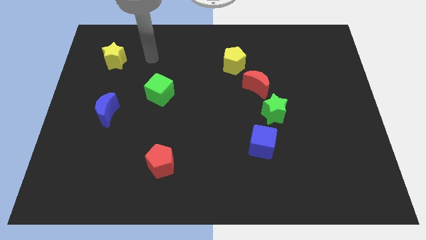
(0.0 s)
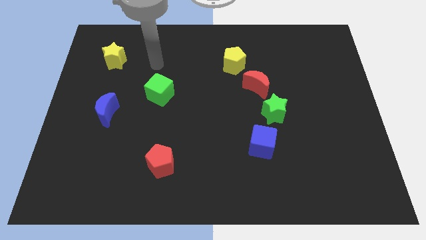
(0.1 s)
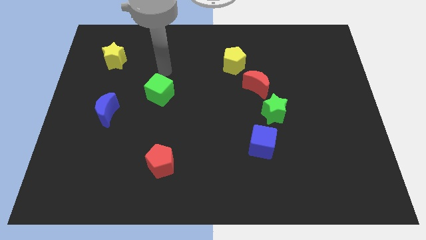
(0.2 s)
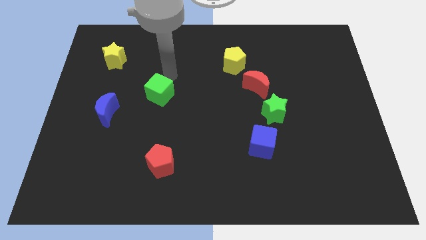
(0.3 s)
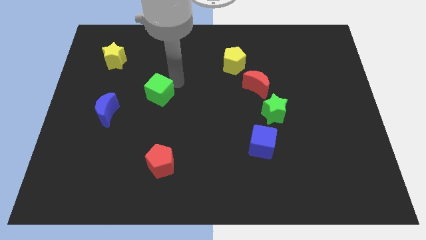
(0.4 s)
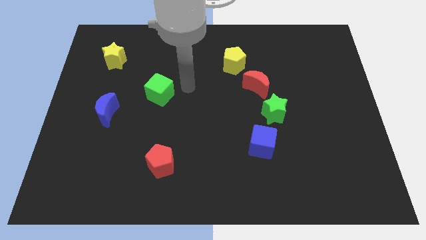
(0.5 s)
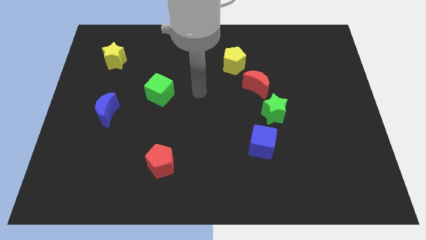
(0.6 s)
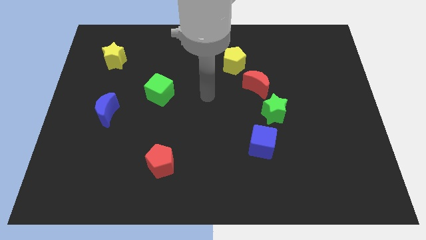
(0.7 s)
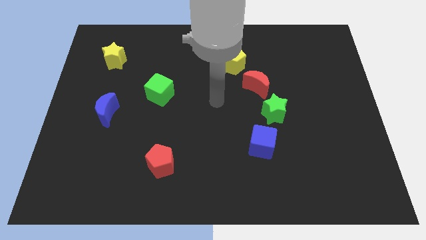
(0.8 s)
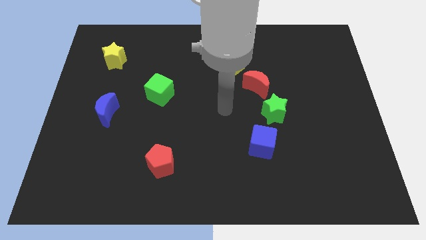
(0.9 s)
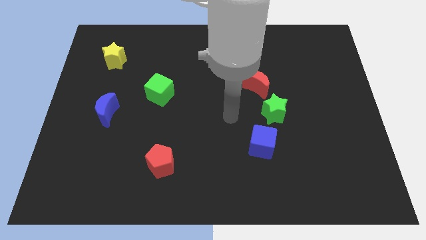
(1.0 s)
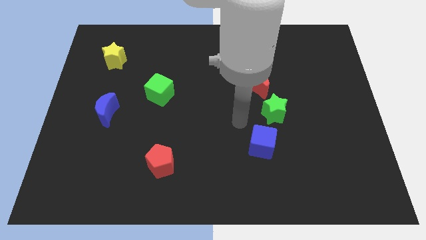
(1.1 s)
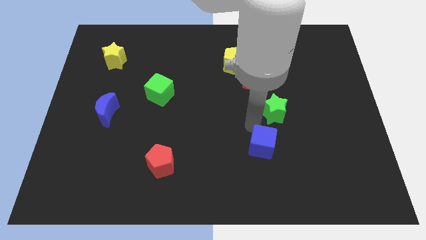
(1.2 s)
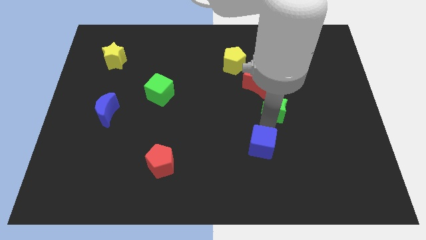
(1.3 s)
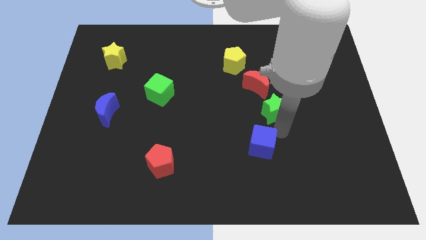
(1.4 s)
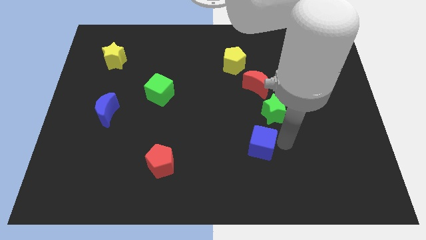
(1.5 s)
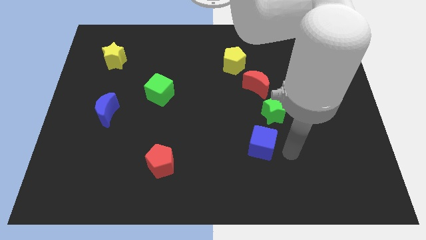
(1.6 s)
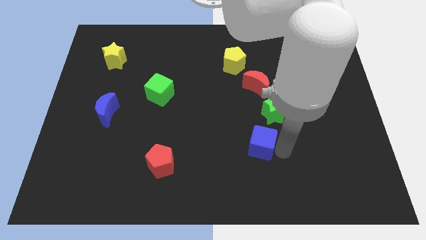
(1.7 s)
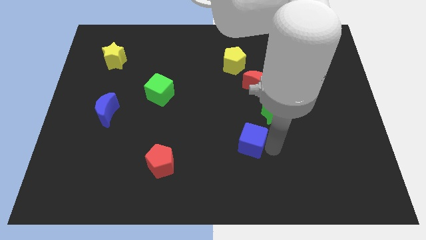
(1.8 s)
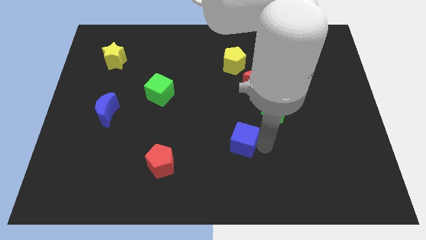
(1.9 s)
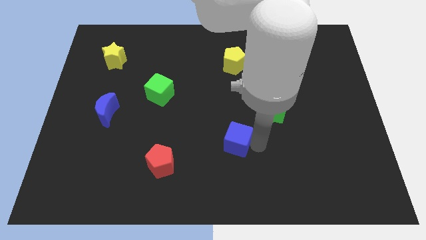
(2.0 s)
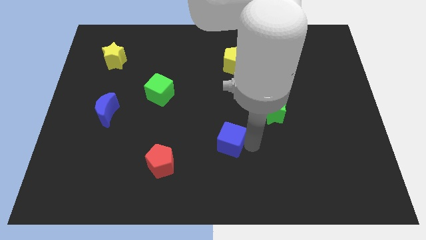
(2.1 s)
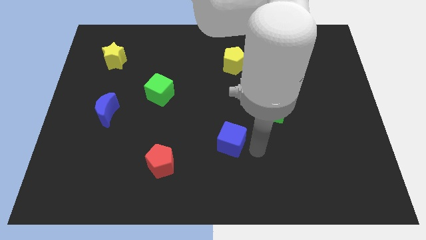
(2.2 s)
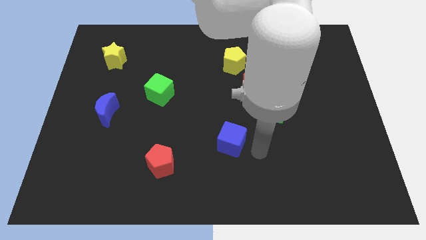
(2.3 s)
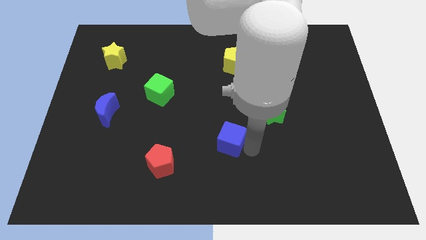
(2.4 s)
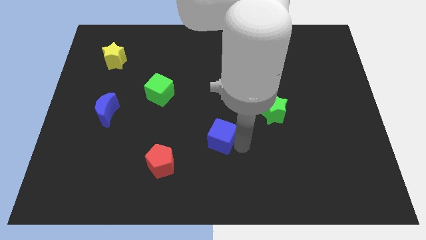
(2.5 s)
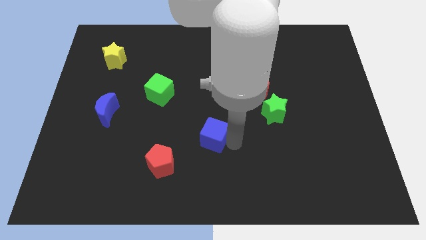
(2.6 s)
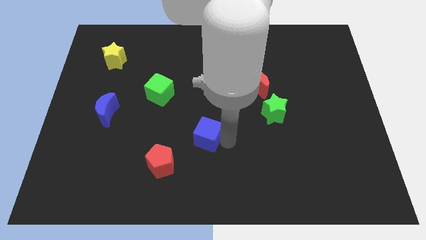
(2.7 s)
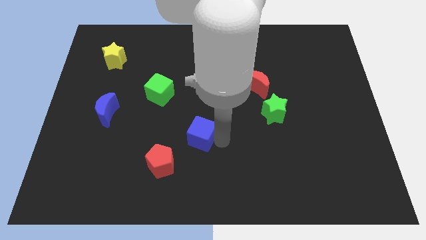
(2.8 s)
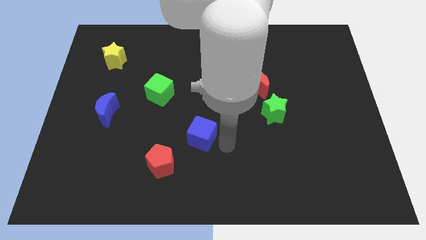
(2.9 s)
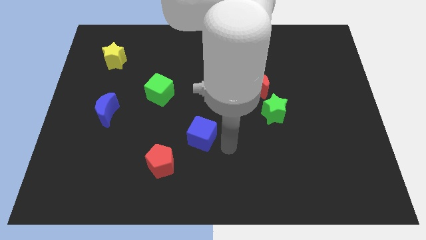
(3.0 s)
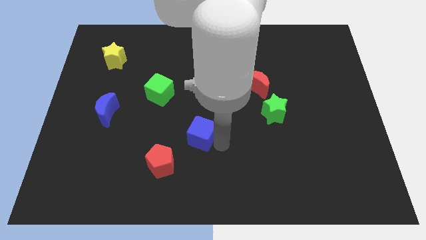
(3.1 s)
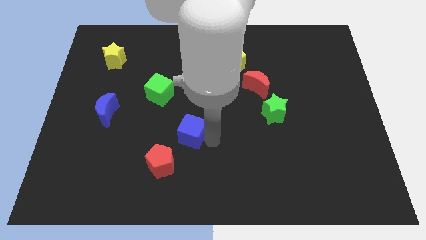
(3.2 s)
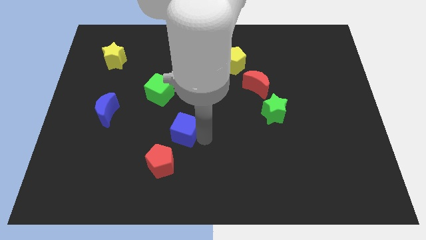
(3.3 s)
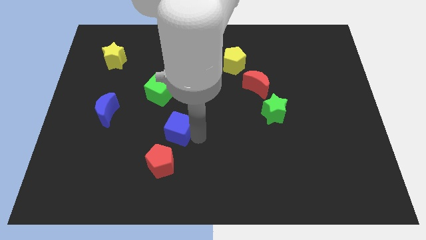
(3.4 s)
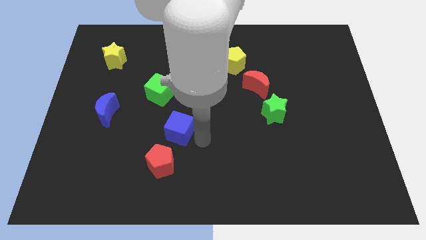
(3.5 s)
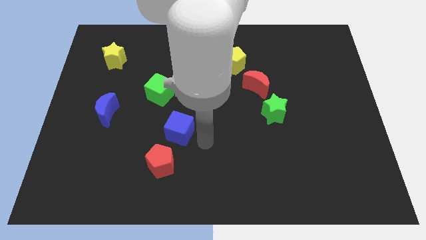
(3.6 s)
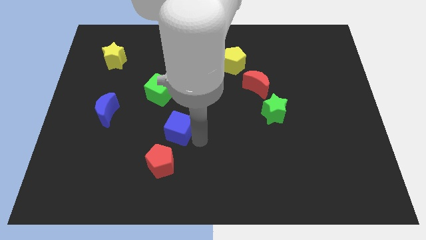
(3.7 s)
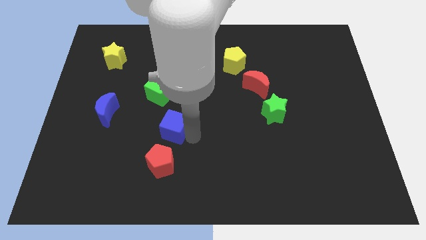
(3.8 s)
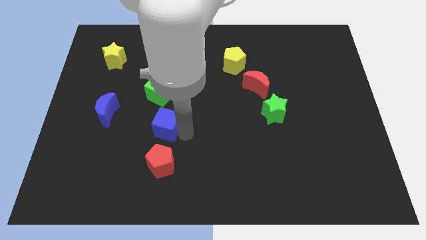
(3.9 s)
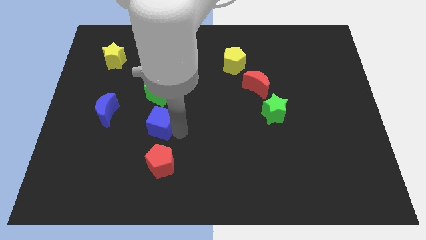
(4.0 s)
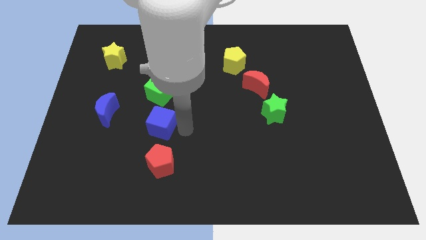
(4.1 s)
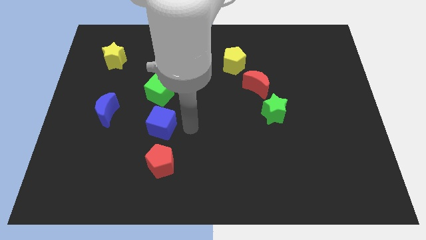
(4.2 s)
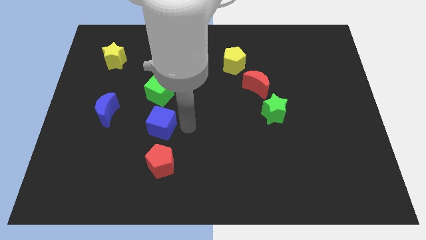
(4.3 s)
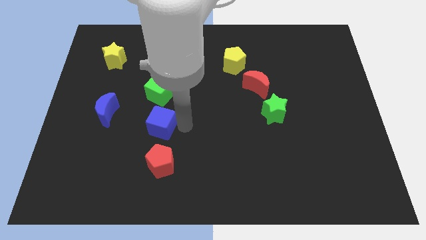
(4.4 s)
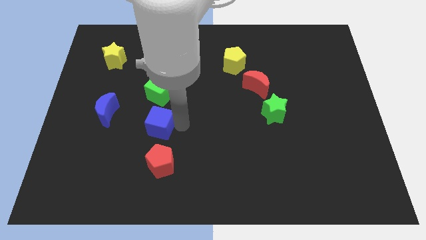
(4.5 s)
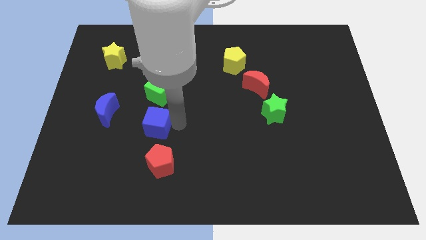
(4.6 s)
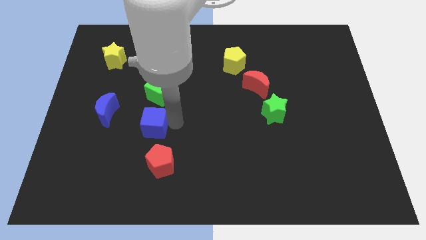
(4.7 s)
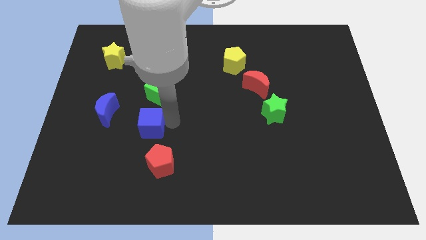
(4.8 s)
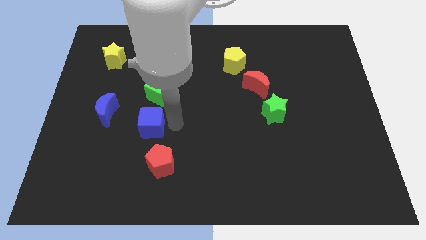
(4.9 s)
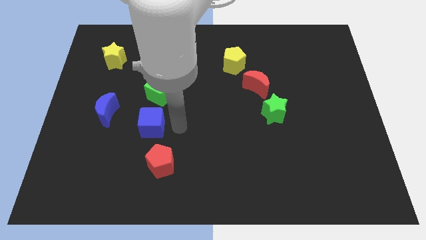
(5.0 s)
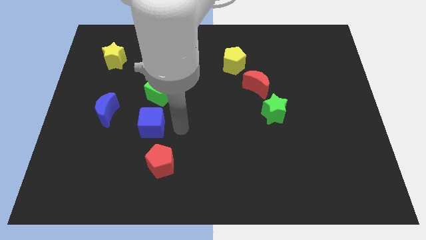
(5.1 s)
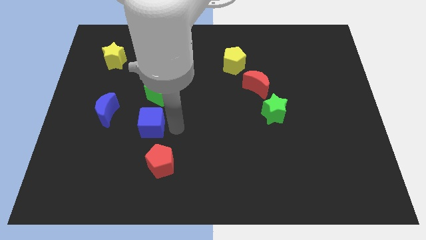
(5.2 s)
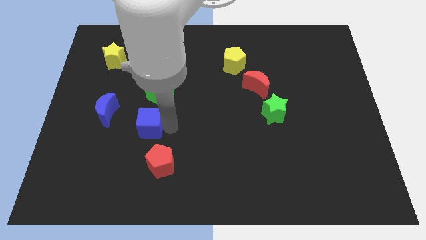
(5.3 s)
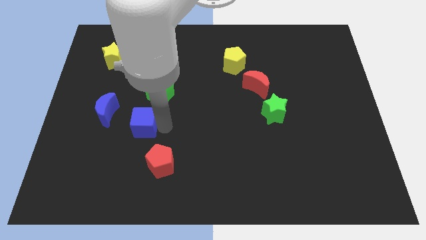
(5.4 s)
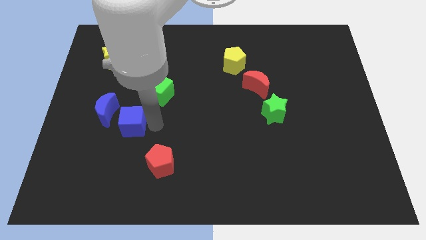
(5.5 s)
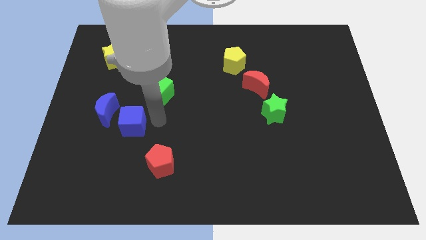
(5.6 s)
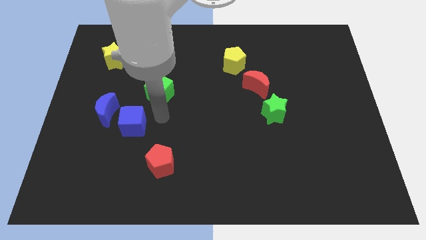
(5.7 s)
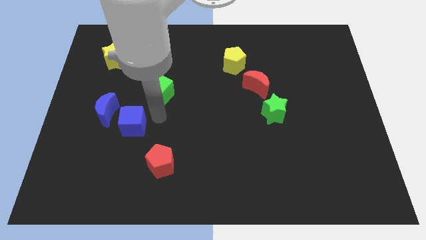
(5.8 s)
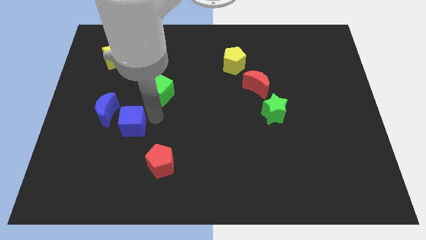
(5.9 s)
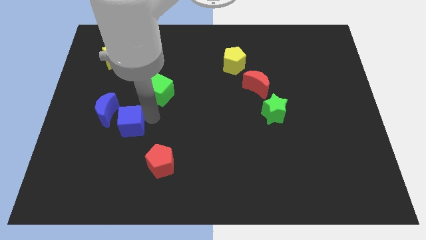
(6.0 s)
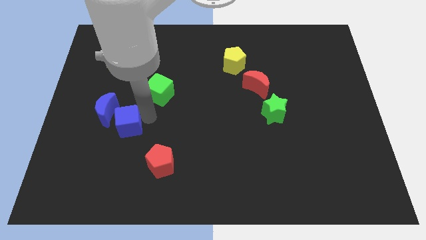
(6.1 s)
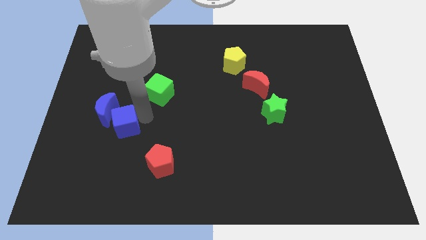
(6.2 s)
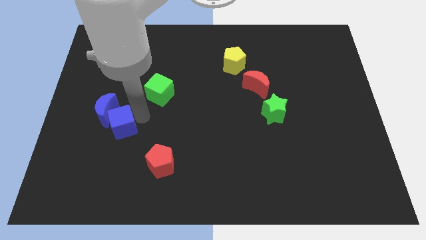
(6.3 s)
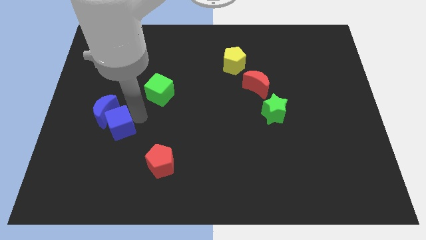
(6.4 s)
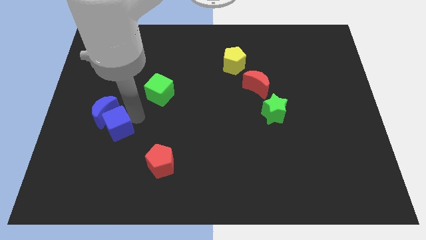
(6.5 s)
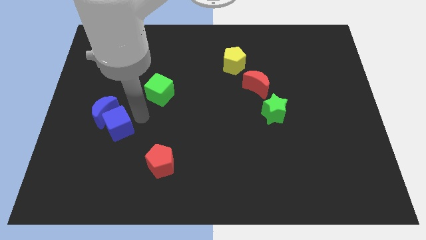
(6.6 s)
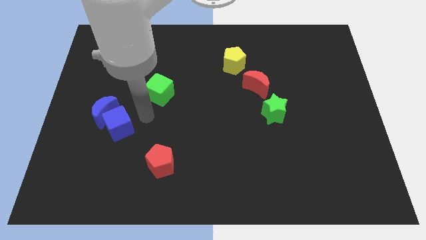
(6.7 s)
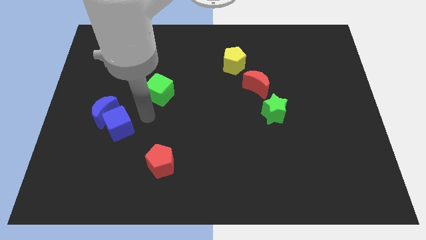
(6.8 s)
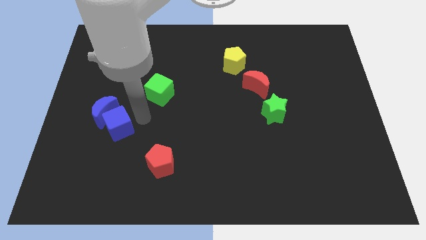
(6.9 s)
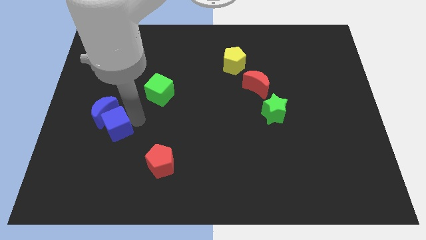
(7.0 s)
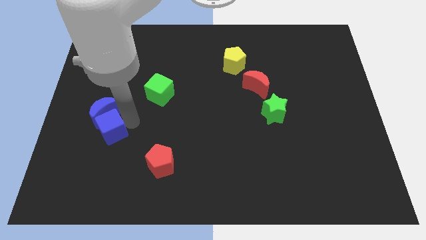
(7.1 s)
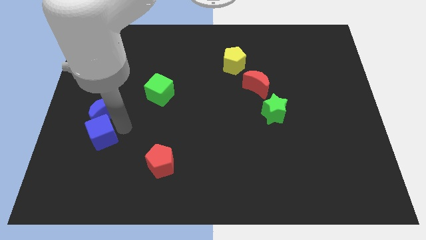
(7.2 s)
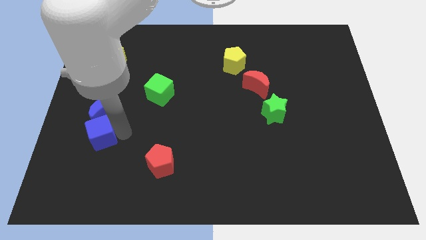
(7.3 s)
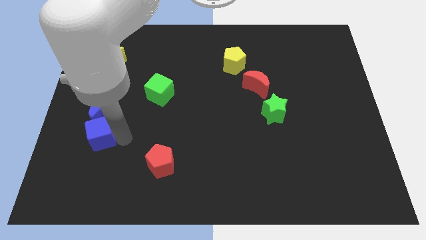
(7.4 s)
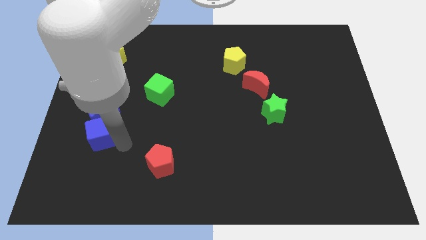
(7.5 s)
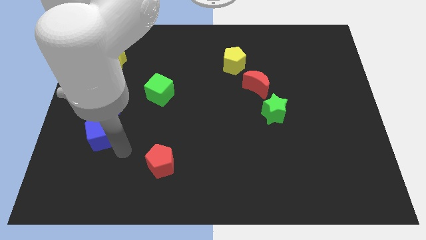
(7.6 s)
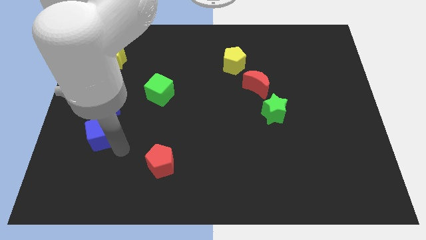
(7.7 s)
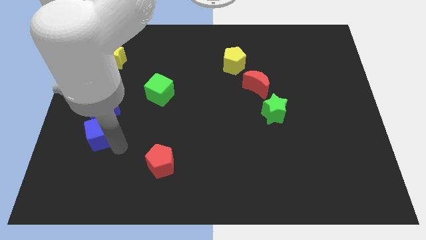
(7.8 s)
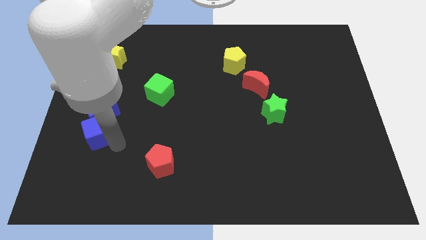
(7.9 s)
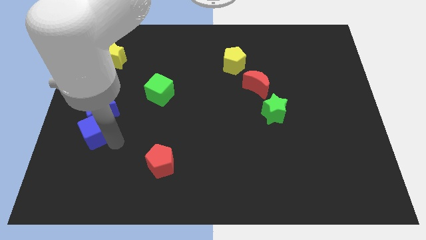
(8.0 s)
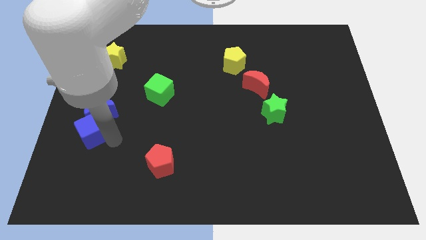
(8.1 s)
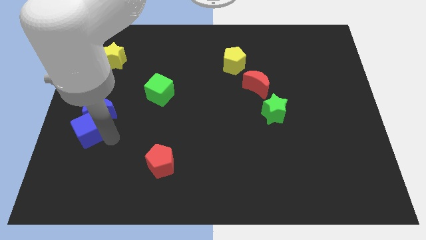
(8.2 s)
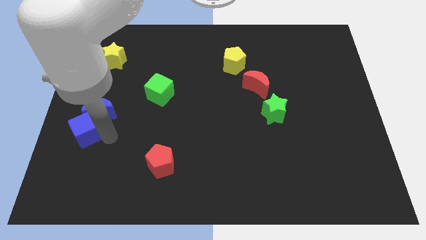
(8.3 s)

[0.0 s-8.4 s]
put the blue cube to the center left
